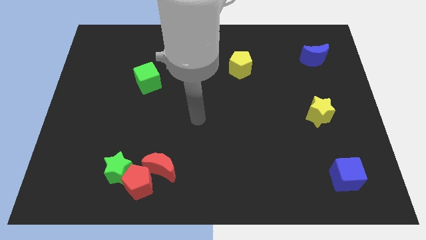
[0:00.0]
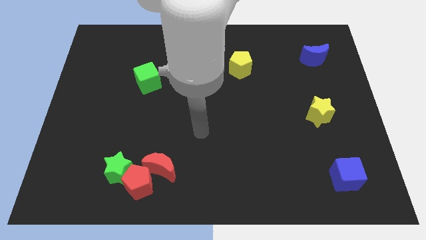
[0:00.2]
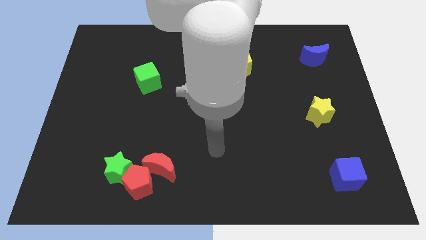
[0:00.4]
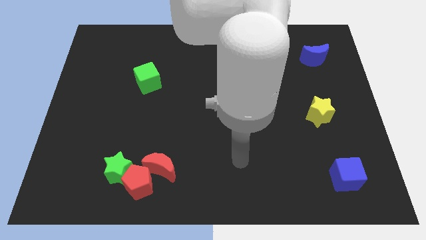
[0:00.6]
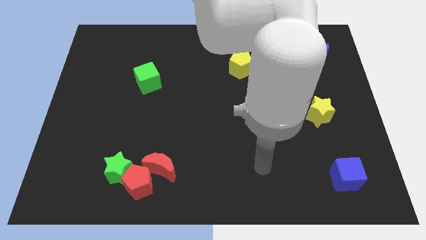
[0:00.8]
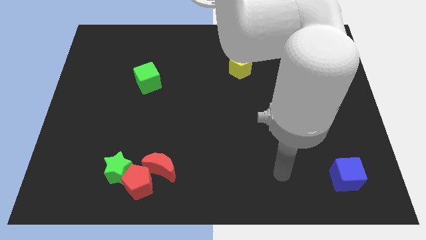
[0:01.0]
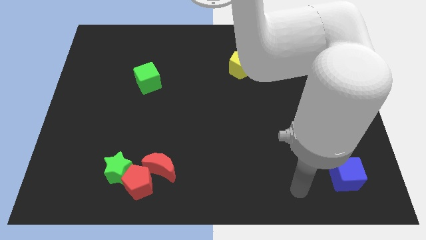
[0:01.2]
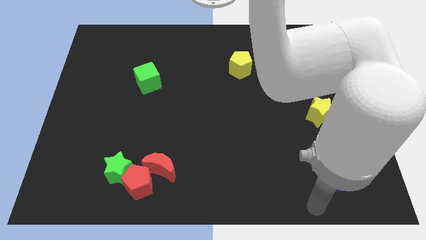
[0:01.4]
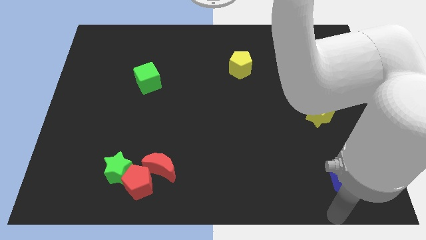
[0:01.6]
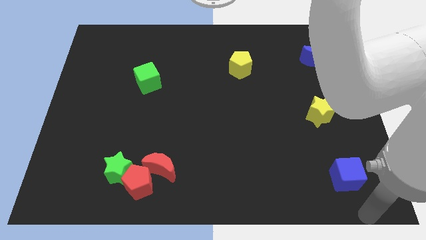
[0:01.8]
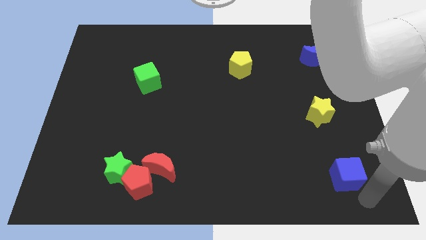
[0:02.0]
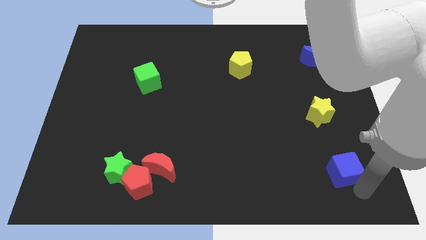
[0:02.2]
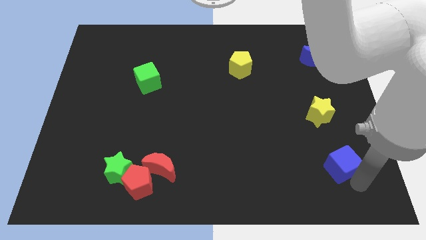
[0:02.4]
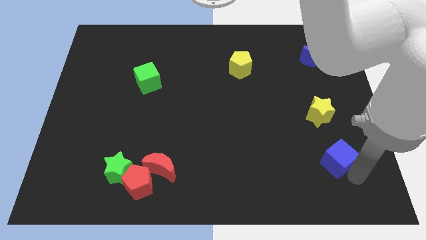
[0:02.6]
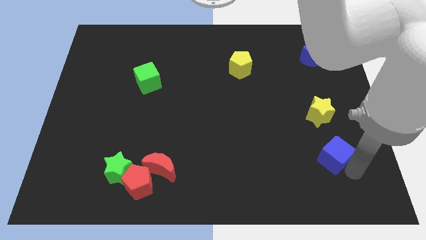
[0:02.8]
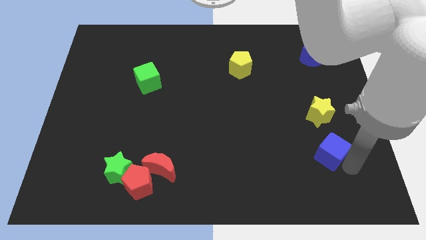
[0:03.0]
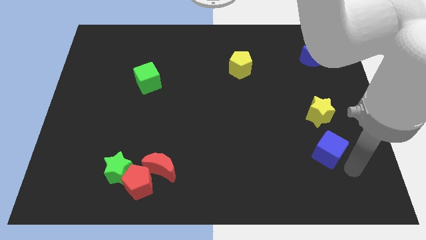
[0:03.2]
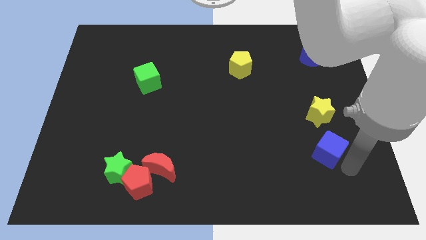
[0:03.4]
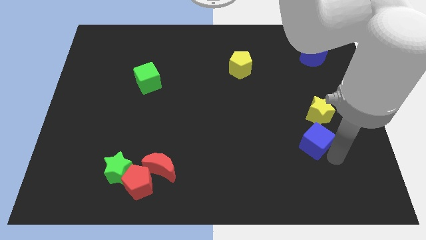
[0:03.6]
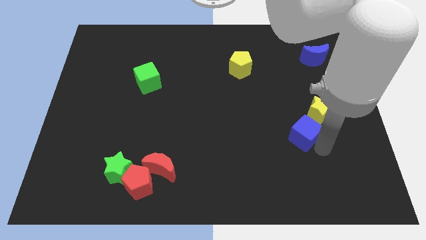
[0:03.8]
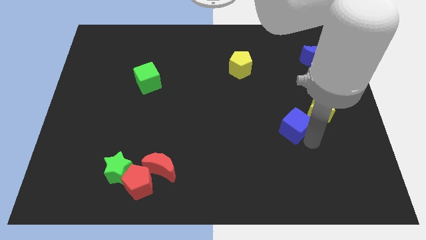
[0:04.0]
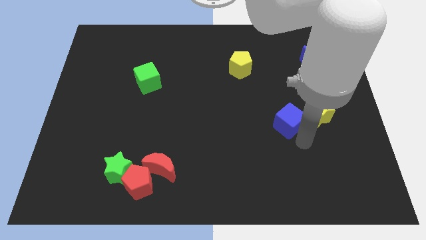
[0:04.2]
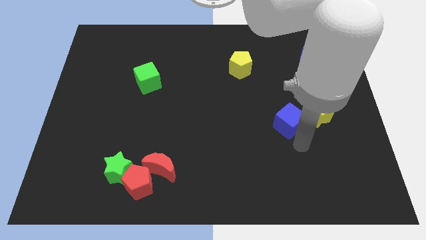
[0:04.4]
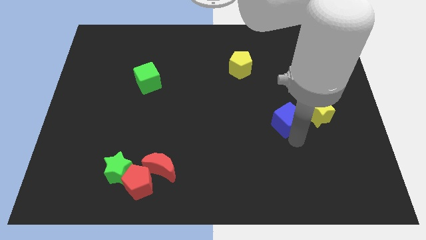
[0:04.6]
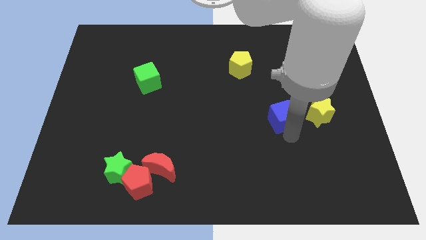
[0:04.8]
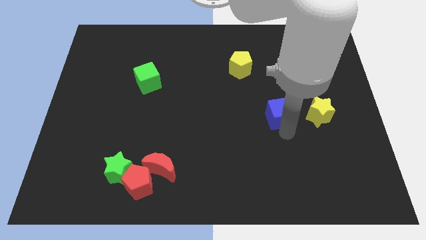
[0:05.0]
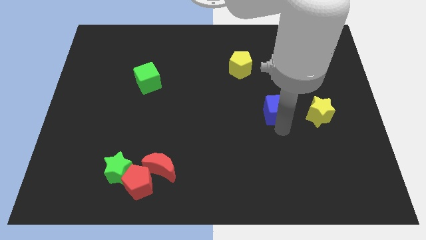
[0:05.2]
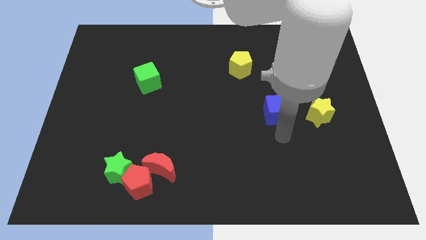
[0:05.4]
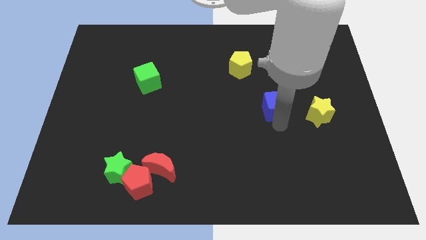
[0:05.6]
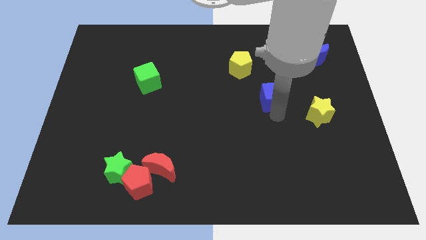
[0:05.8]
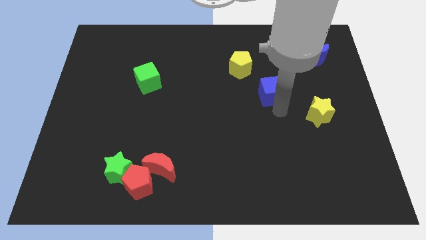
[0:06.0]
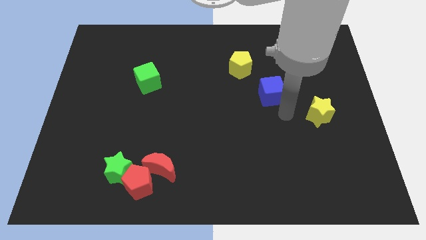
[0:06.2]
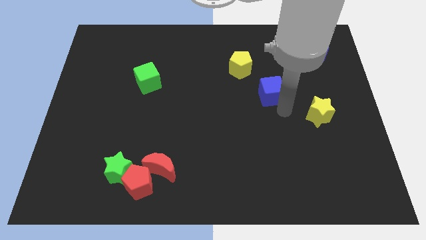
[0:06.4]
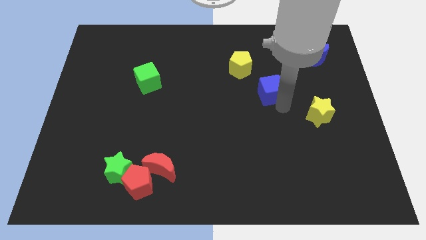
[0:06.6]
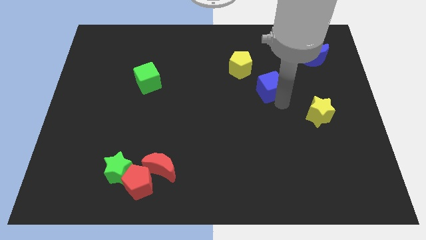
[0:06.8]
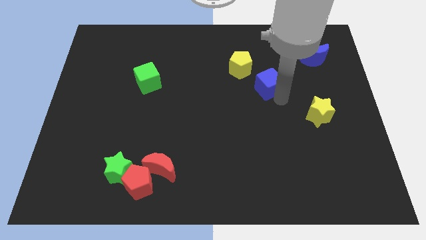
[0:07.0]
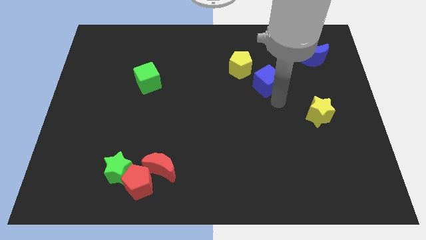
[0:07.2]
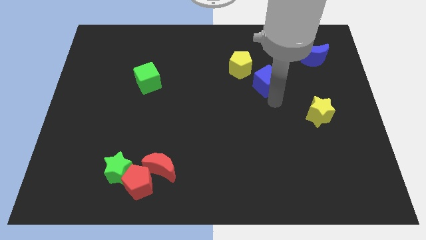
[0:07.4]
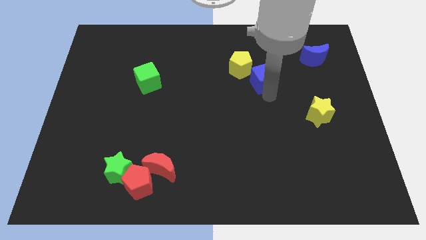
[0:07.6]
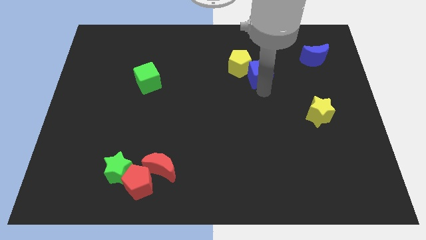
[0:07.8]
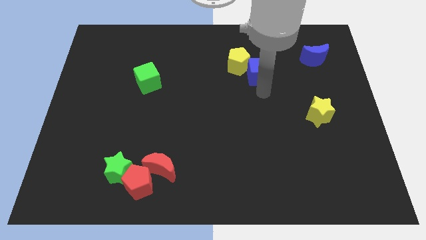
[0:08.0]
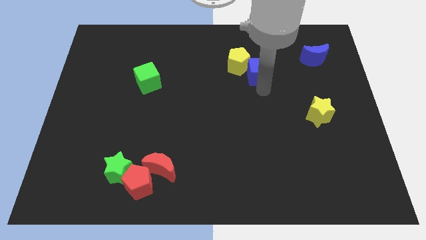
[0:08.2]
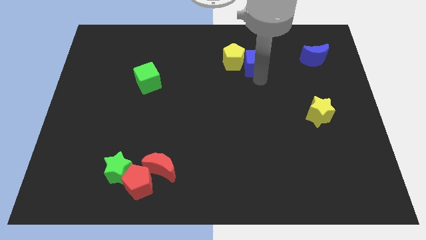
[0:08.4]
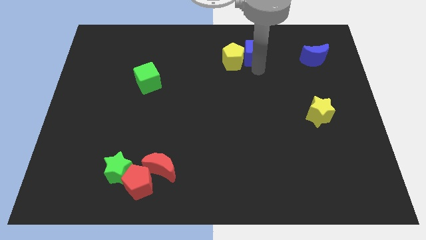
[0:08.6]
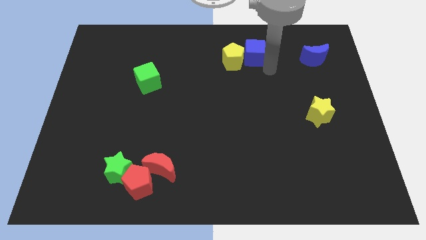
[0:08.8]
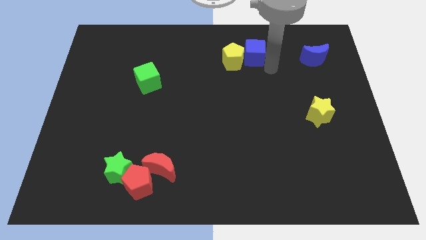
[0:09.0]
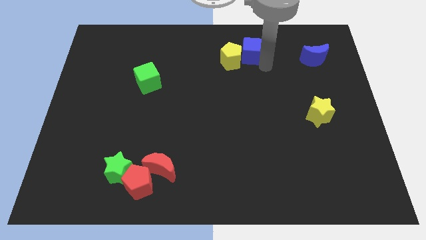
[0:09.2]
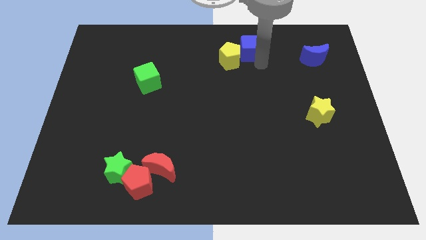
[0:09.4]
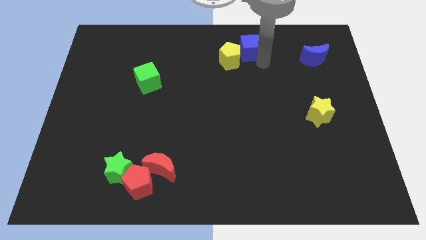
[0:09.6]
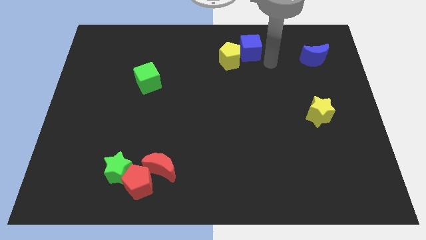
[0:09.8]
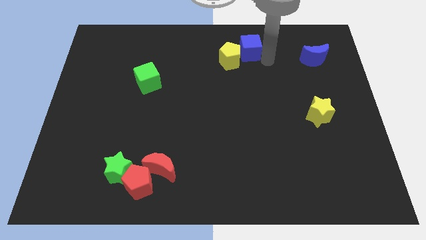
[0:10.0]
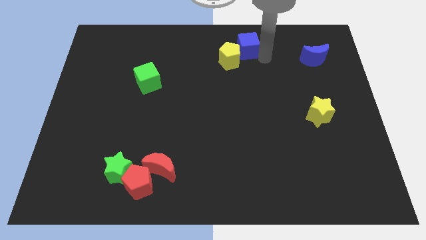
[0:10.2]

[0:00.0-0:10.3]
move the blue cube to the towards your base

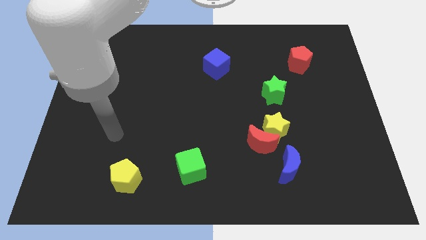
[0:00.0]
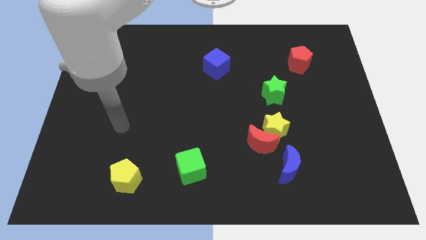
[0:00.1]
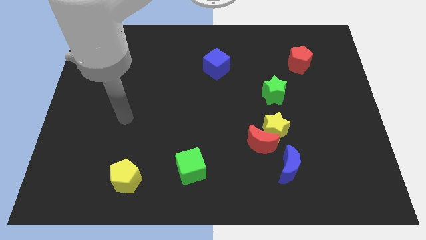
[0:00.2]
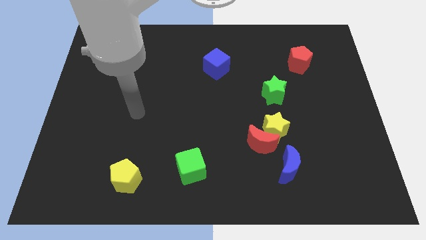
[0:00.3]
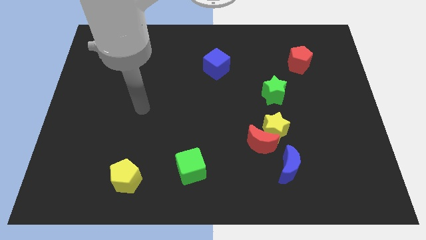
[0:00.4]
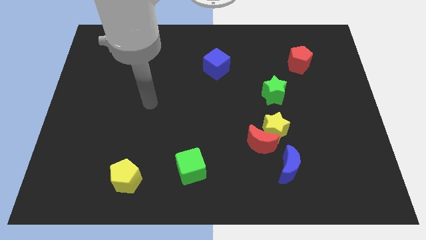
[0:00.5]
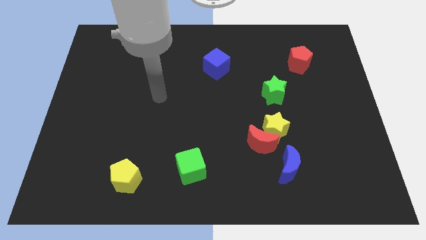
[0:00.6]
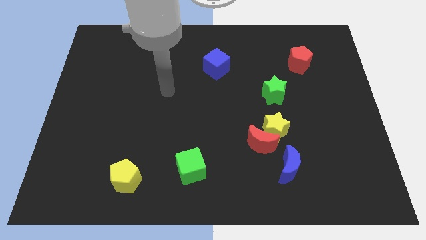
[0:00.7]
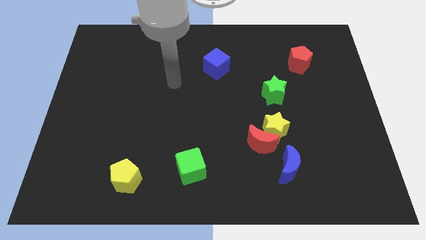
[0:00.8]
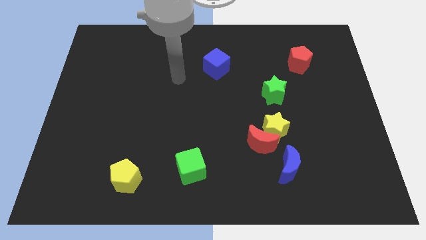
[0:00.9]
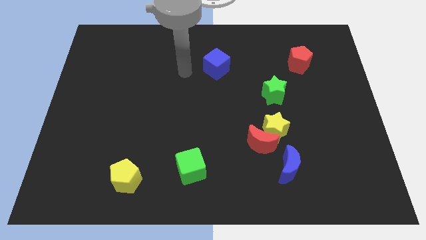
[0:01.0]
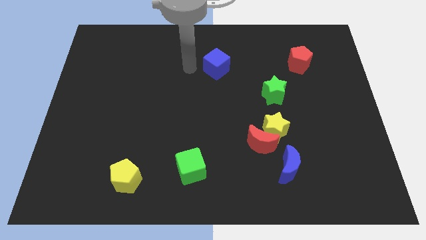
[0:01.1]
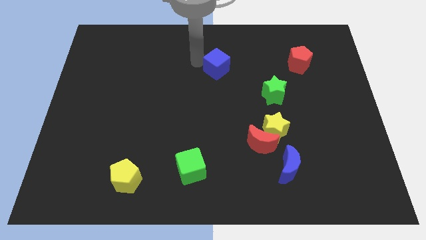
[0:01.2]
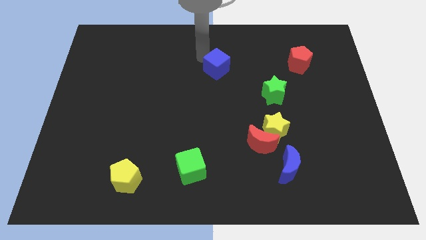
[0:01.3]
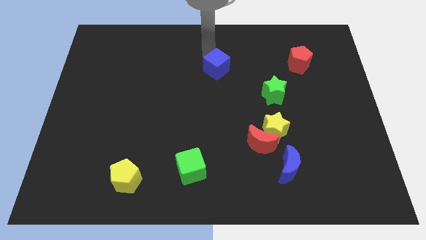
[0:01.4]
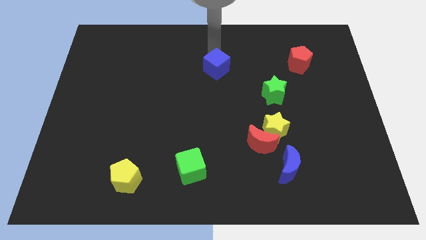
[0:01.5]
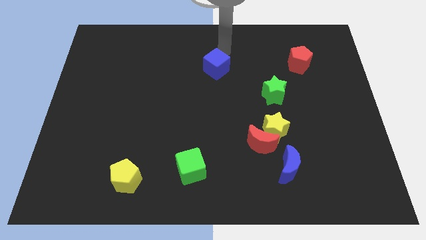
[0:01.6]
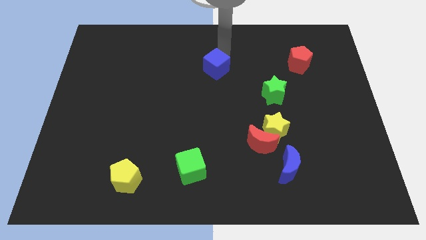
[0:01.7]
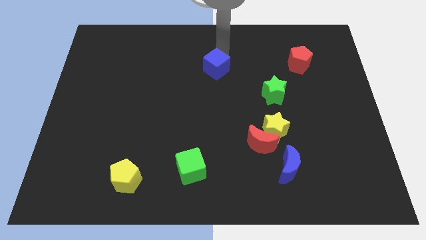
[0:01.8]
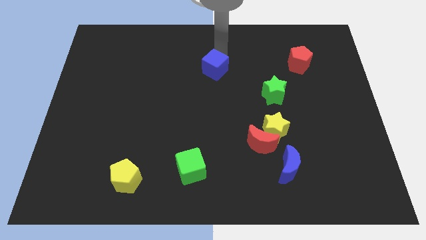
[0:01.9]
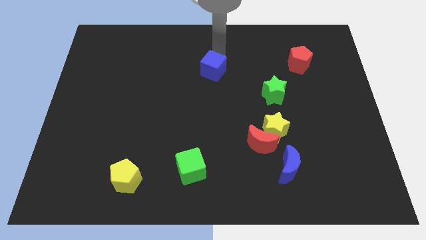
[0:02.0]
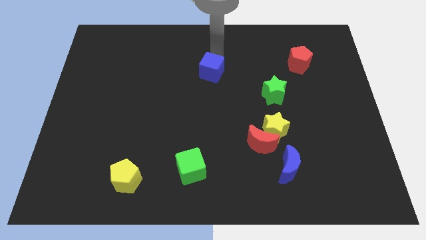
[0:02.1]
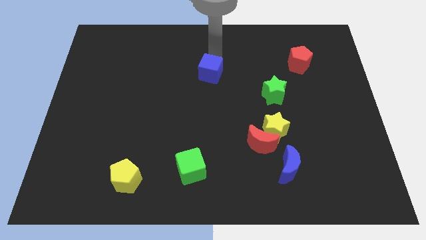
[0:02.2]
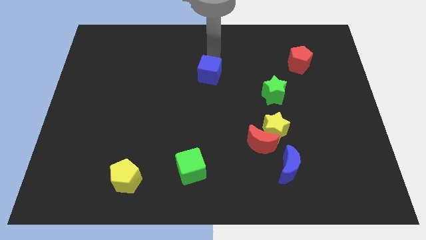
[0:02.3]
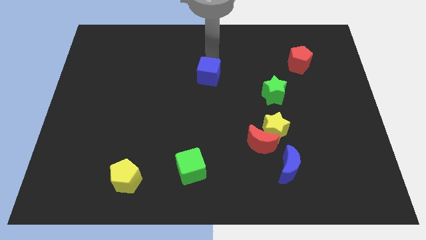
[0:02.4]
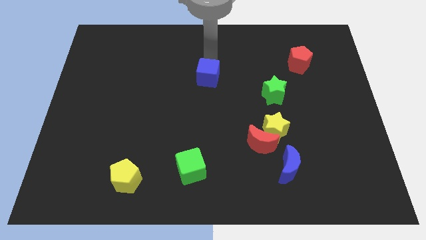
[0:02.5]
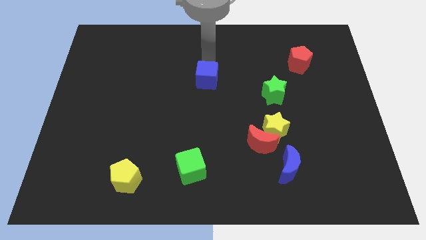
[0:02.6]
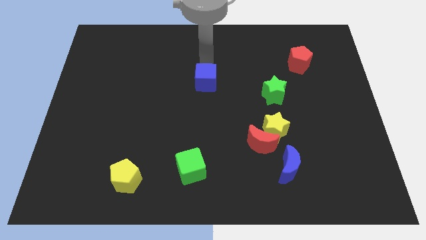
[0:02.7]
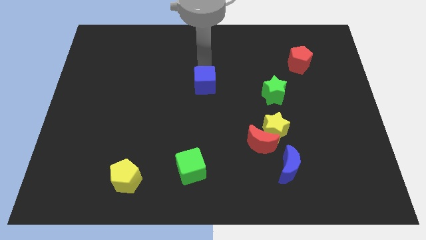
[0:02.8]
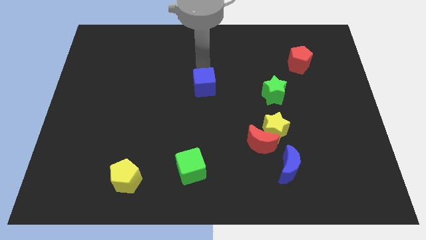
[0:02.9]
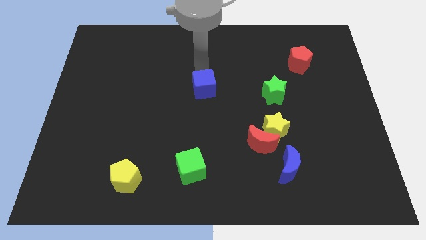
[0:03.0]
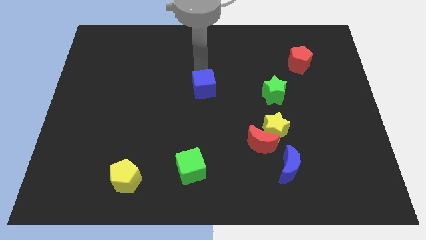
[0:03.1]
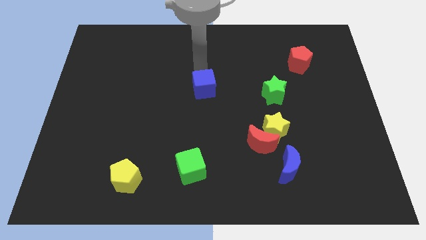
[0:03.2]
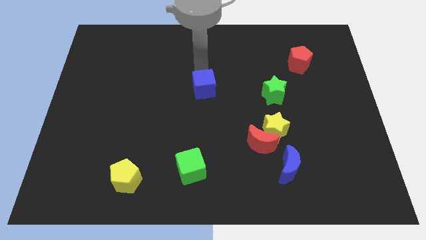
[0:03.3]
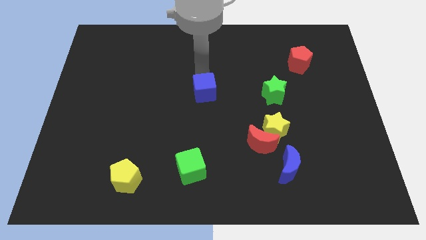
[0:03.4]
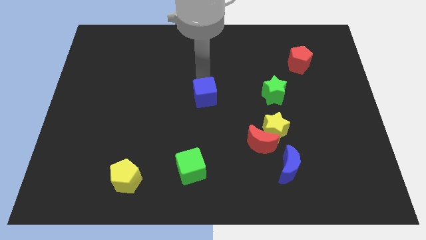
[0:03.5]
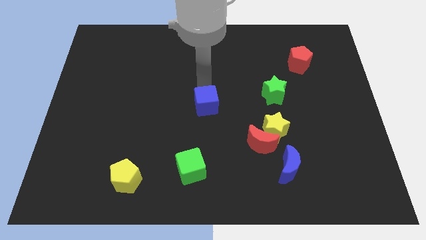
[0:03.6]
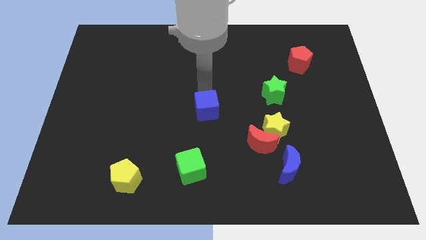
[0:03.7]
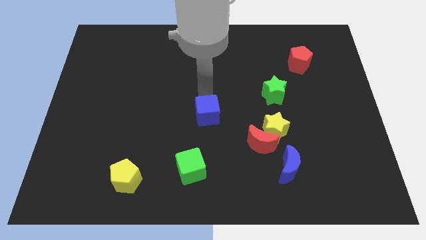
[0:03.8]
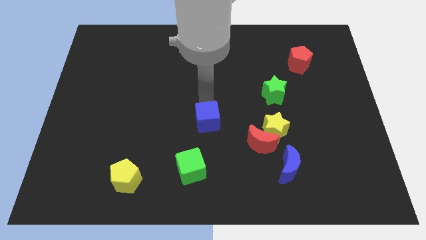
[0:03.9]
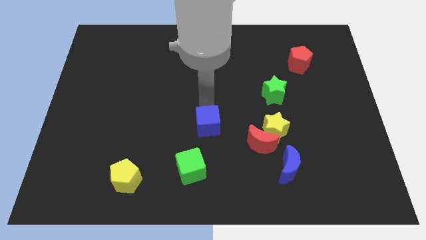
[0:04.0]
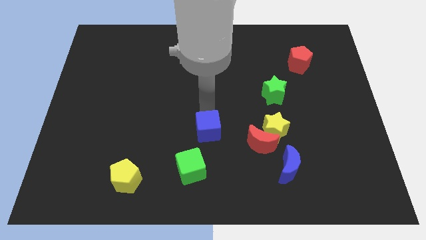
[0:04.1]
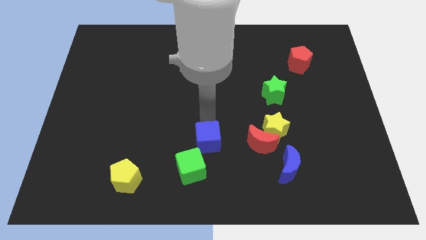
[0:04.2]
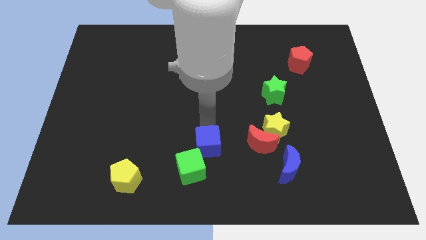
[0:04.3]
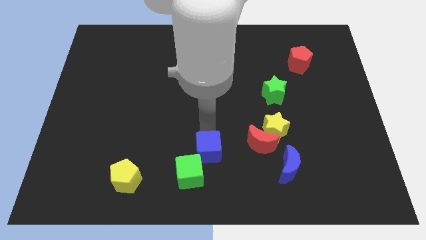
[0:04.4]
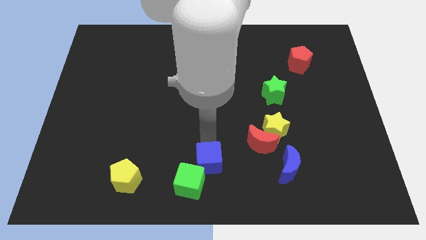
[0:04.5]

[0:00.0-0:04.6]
slide the blue cube to the bottom side
